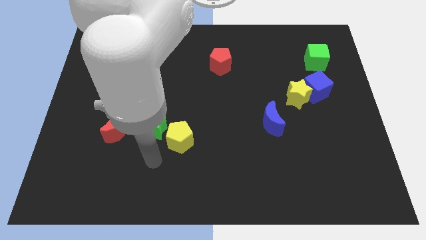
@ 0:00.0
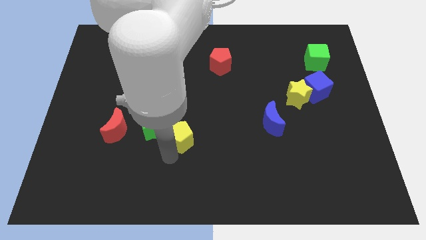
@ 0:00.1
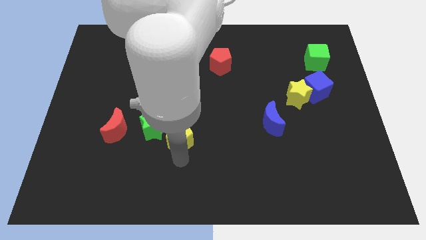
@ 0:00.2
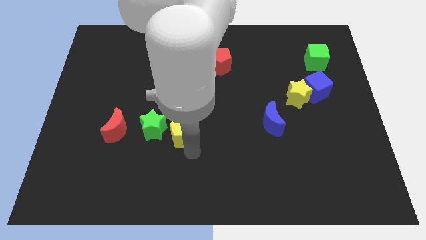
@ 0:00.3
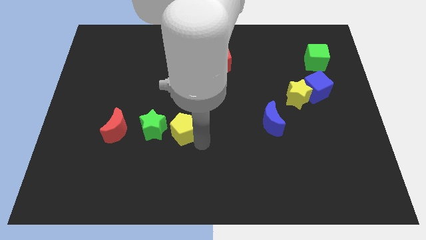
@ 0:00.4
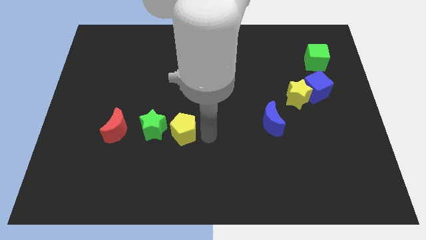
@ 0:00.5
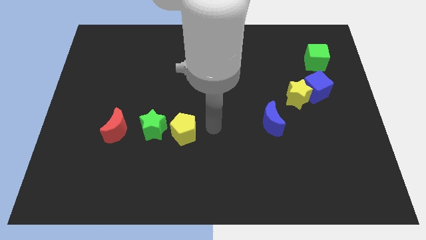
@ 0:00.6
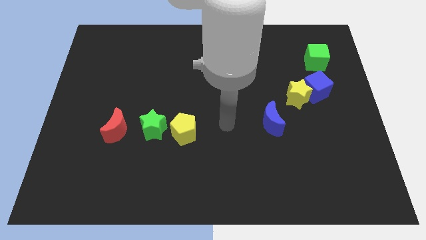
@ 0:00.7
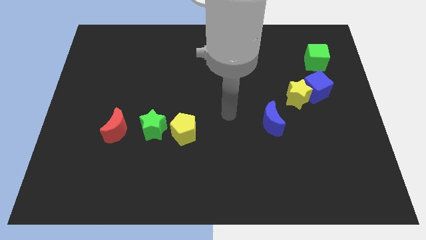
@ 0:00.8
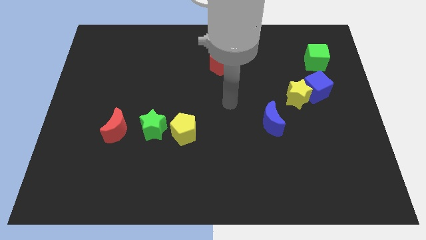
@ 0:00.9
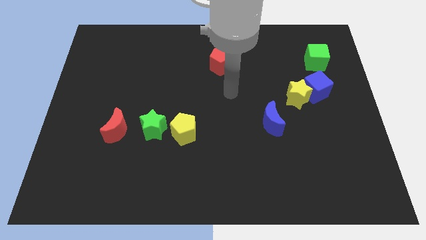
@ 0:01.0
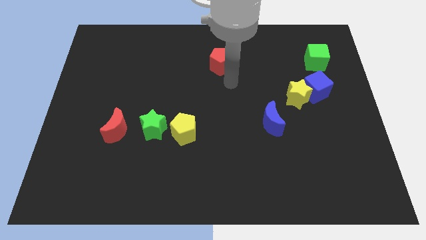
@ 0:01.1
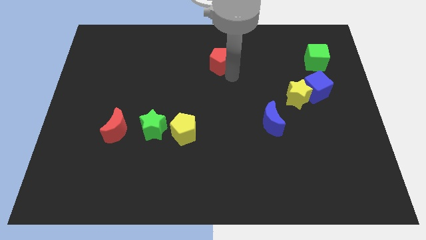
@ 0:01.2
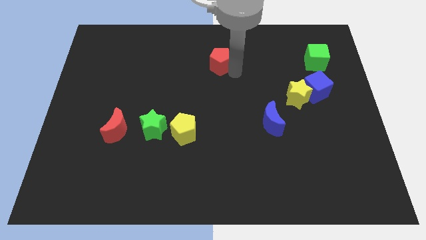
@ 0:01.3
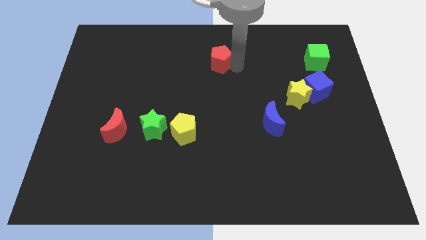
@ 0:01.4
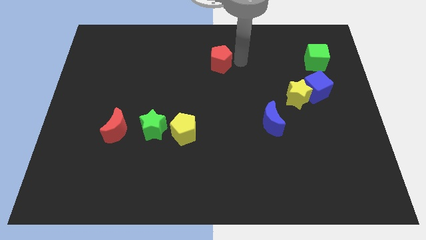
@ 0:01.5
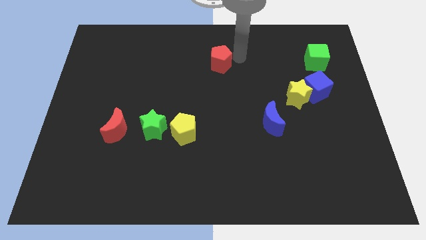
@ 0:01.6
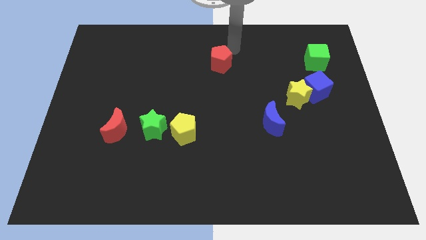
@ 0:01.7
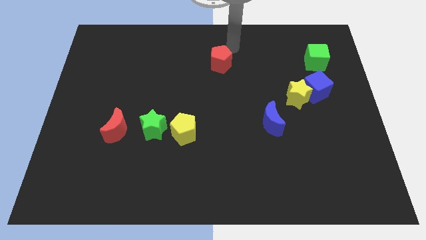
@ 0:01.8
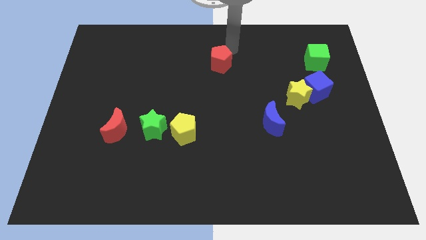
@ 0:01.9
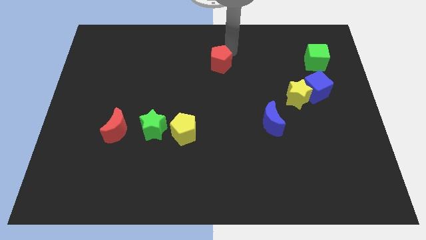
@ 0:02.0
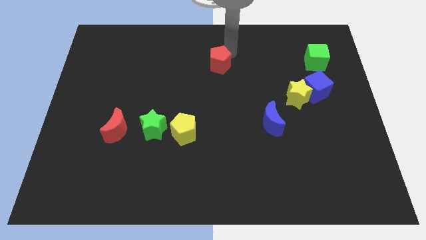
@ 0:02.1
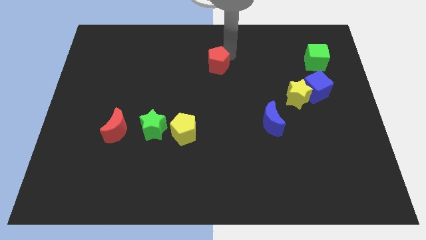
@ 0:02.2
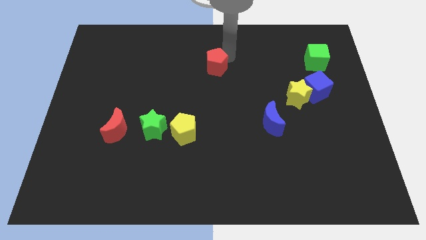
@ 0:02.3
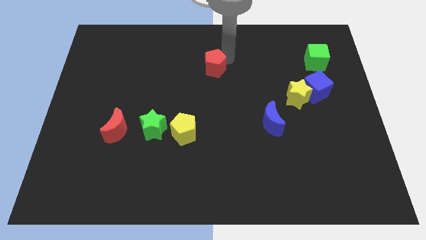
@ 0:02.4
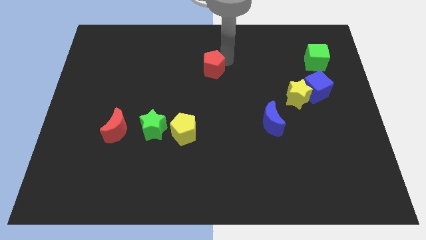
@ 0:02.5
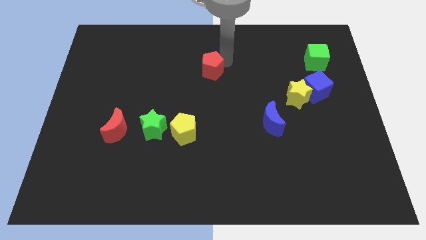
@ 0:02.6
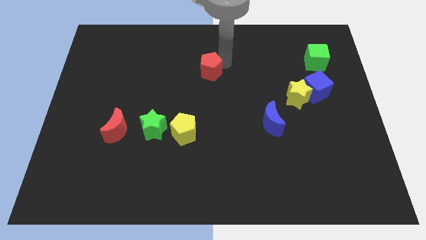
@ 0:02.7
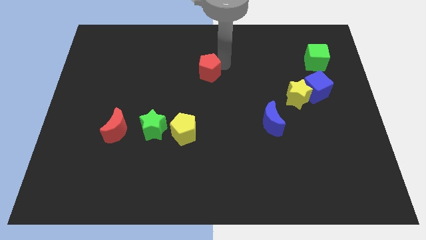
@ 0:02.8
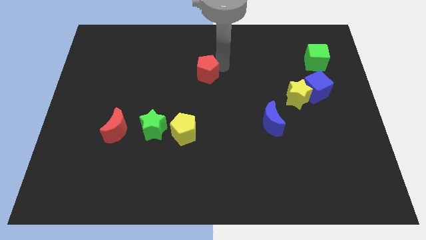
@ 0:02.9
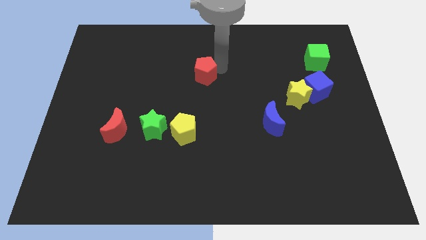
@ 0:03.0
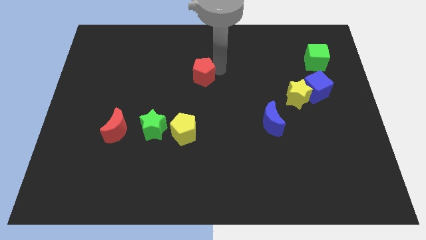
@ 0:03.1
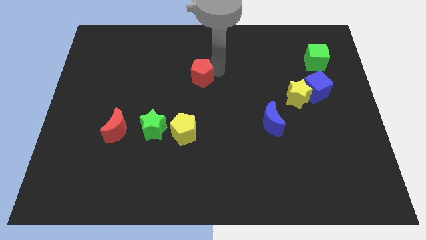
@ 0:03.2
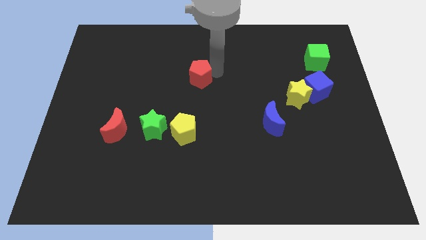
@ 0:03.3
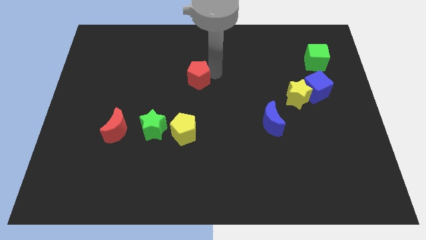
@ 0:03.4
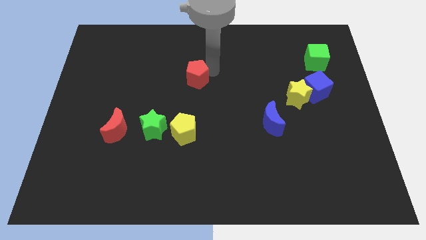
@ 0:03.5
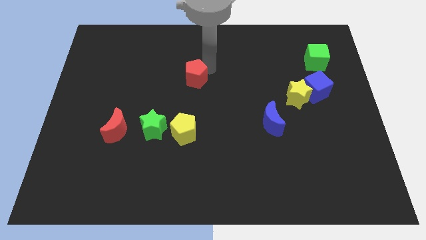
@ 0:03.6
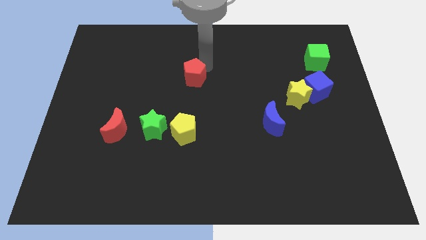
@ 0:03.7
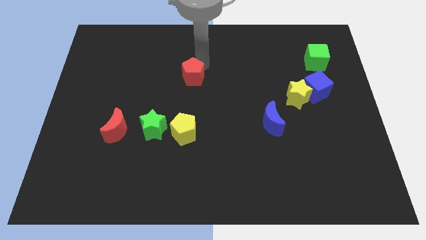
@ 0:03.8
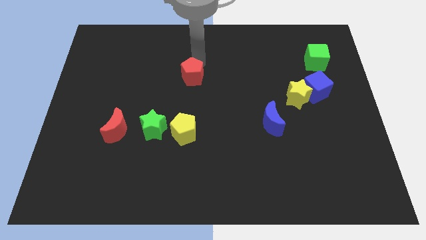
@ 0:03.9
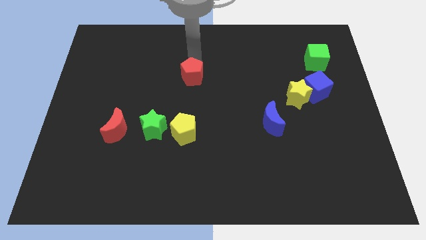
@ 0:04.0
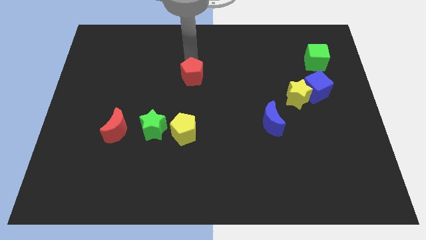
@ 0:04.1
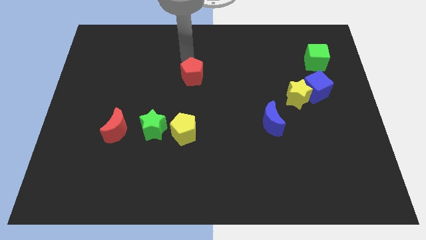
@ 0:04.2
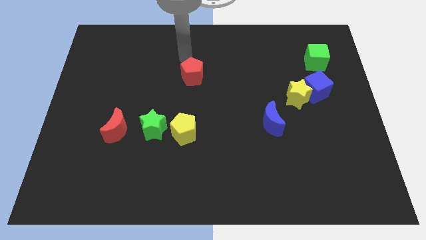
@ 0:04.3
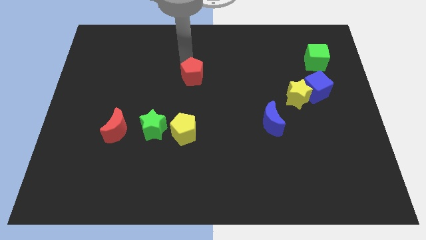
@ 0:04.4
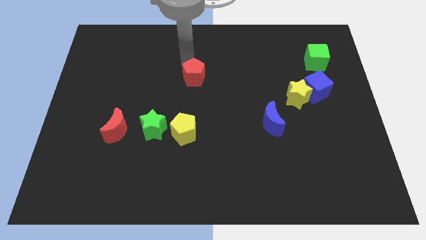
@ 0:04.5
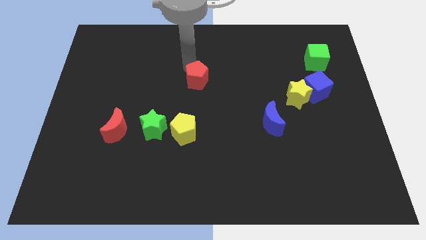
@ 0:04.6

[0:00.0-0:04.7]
move the red pentagon above the yellow pentagon

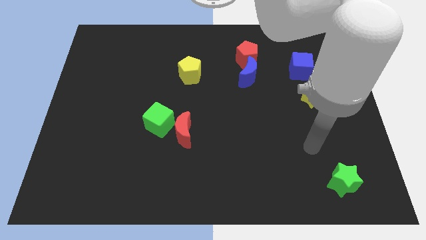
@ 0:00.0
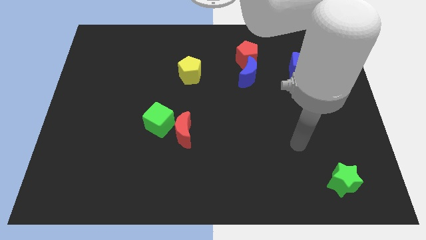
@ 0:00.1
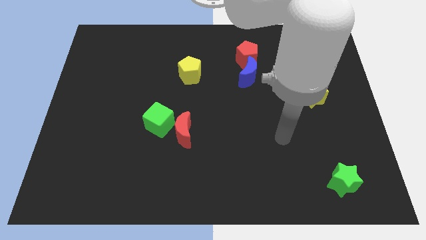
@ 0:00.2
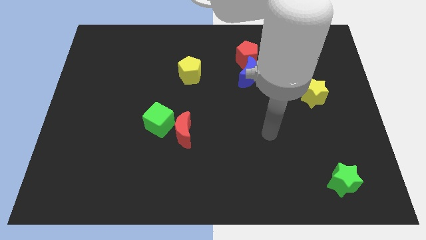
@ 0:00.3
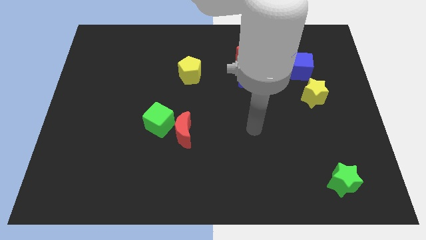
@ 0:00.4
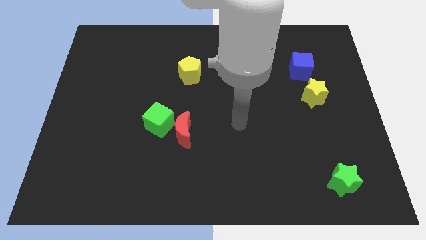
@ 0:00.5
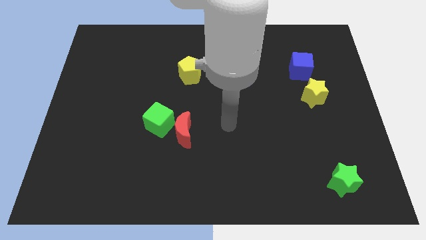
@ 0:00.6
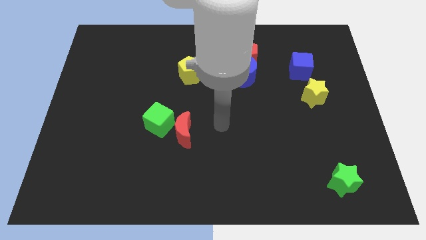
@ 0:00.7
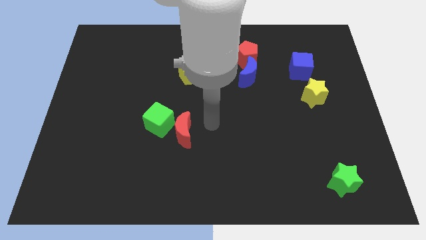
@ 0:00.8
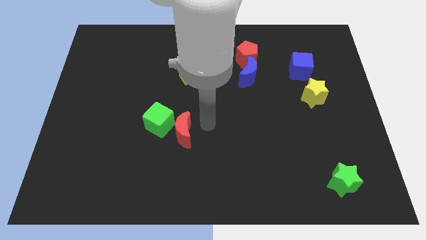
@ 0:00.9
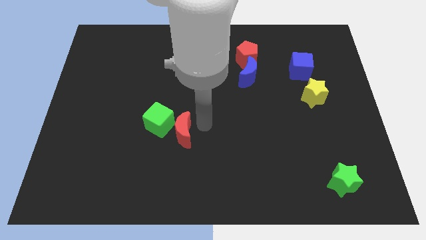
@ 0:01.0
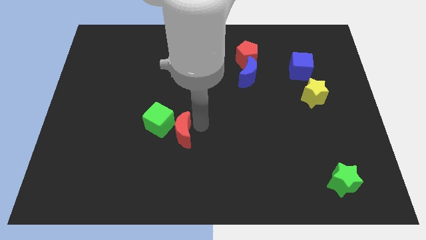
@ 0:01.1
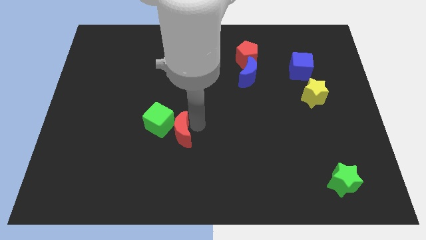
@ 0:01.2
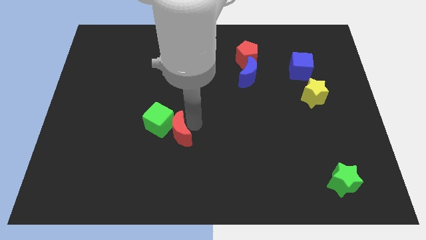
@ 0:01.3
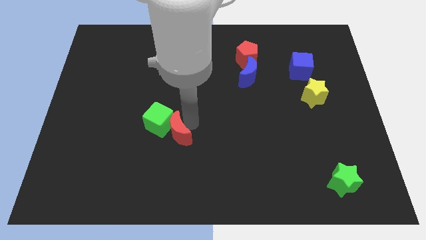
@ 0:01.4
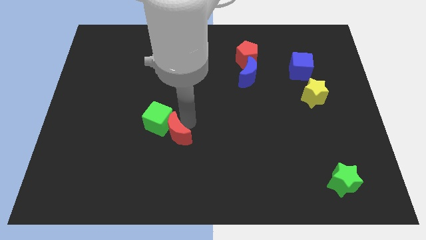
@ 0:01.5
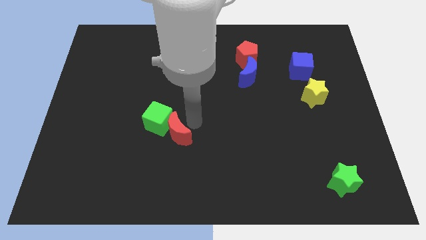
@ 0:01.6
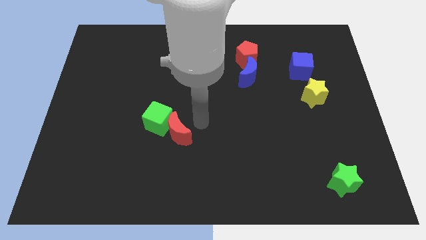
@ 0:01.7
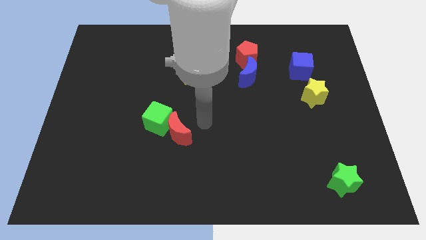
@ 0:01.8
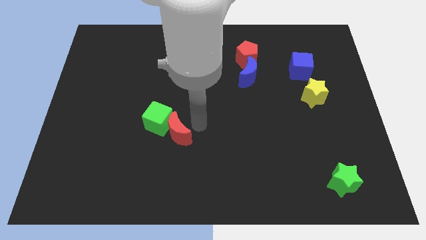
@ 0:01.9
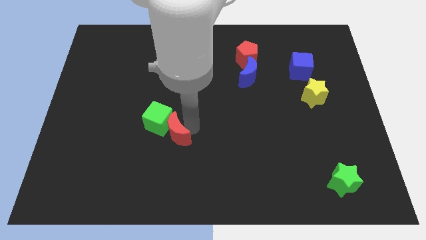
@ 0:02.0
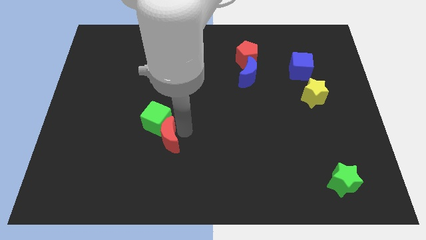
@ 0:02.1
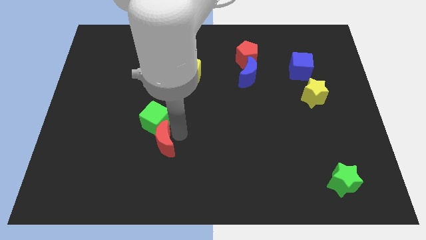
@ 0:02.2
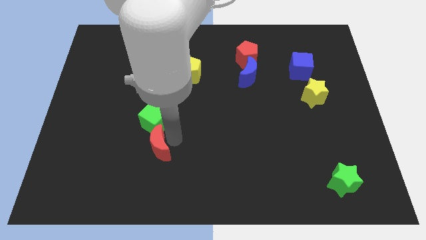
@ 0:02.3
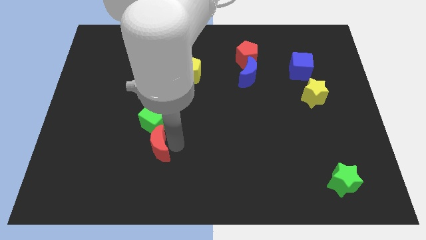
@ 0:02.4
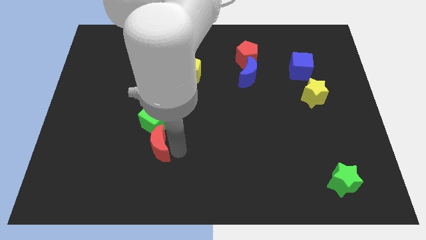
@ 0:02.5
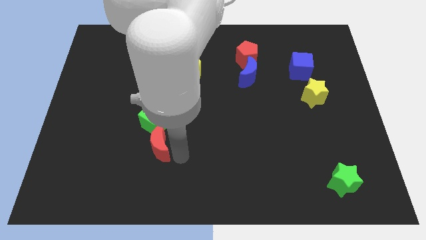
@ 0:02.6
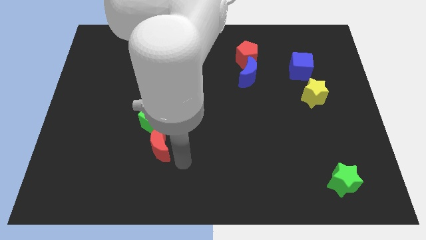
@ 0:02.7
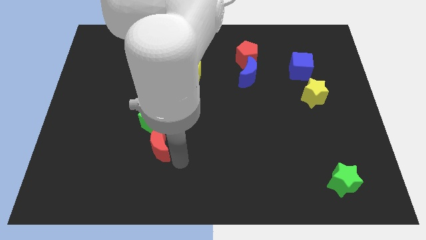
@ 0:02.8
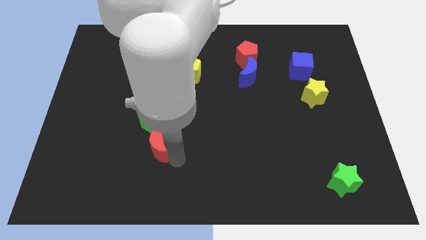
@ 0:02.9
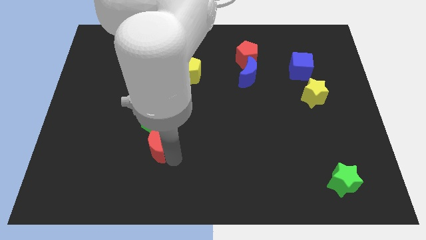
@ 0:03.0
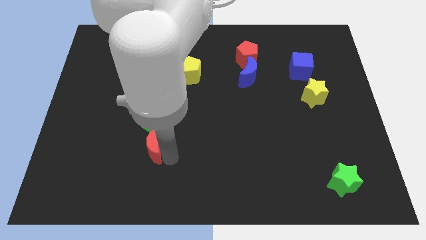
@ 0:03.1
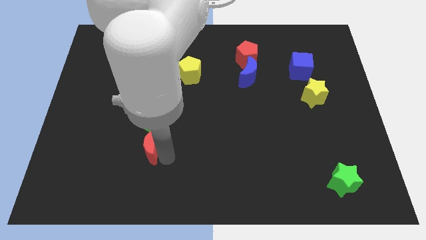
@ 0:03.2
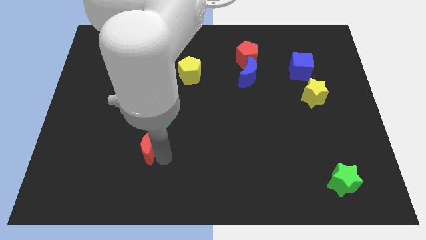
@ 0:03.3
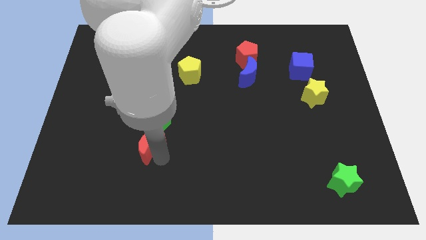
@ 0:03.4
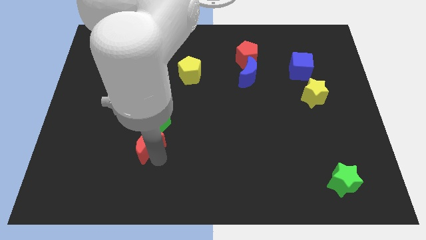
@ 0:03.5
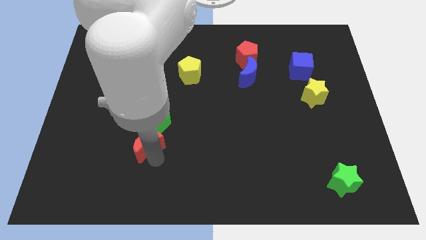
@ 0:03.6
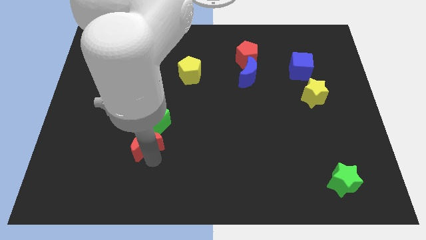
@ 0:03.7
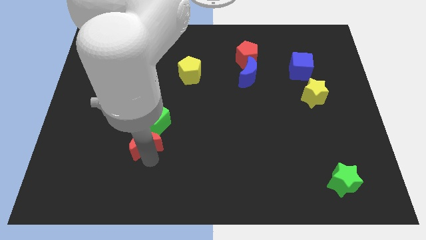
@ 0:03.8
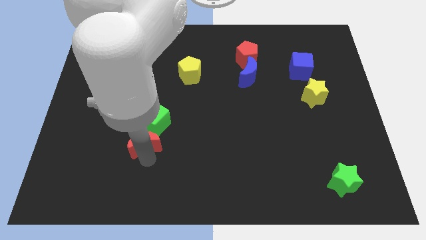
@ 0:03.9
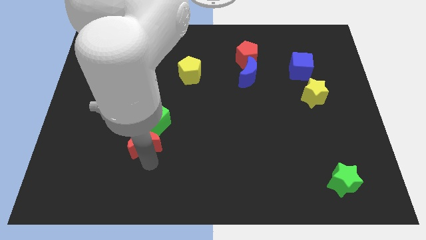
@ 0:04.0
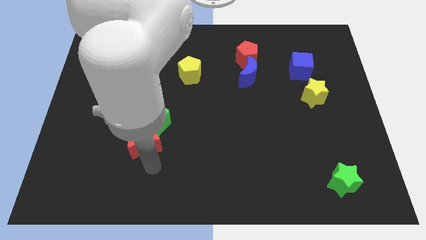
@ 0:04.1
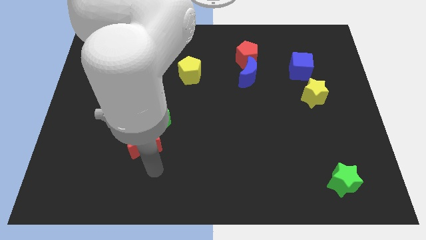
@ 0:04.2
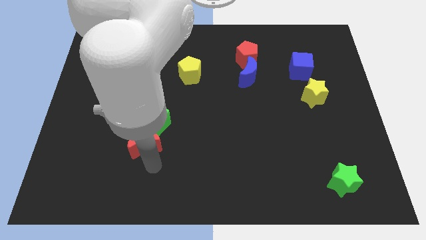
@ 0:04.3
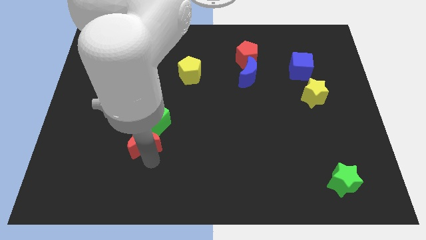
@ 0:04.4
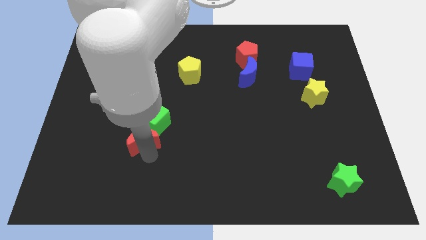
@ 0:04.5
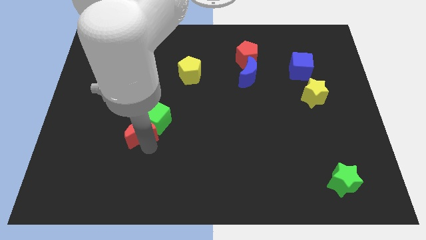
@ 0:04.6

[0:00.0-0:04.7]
move the red moon to the left of the green cube
